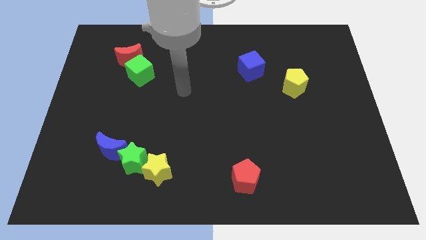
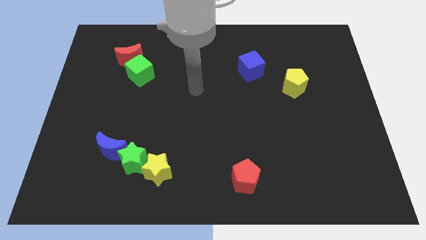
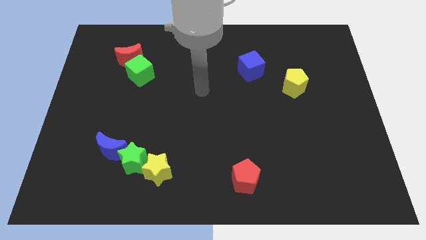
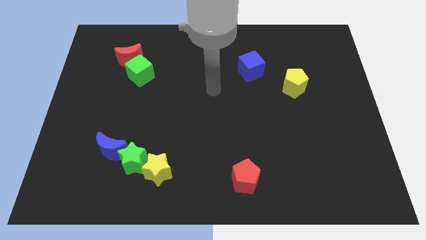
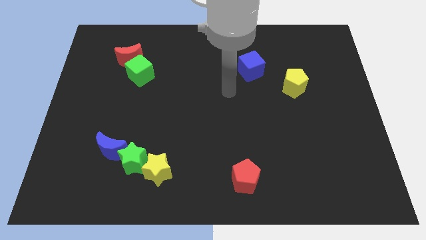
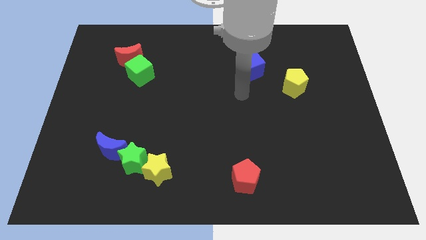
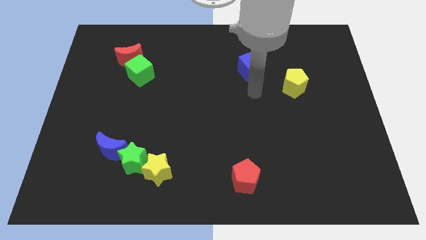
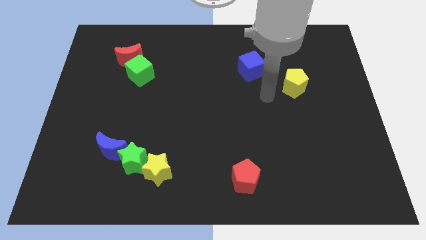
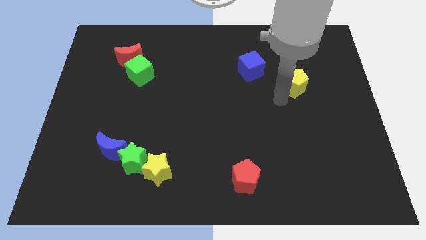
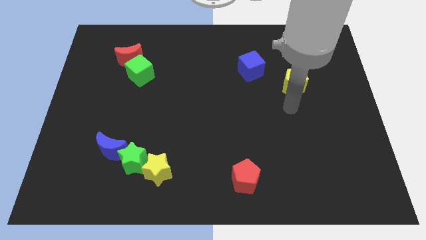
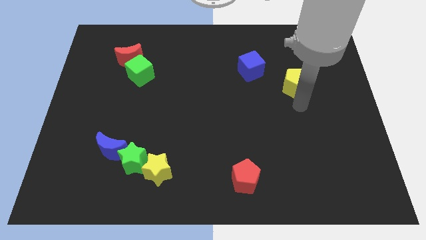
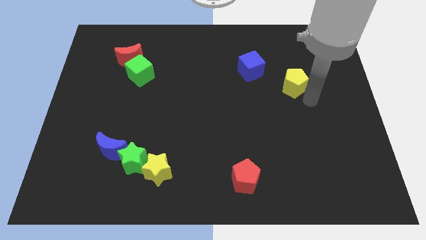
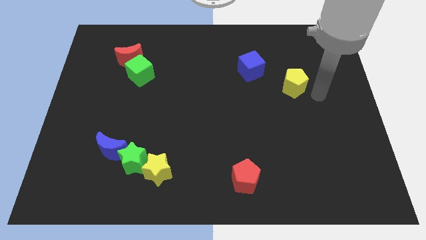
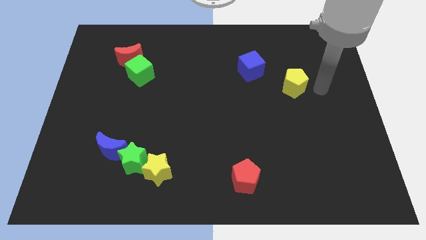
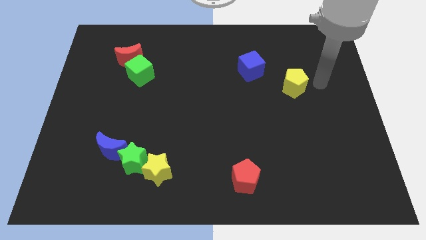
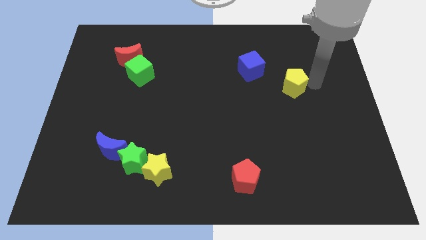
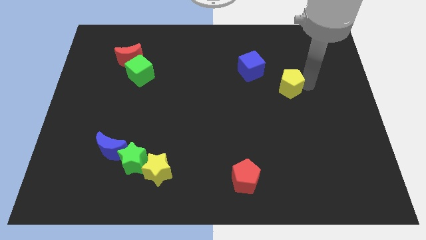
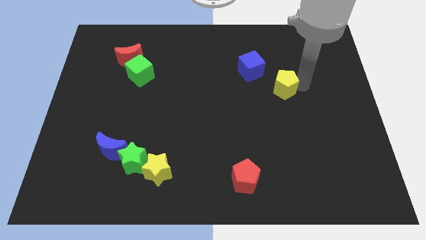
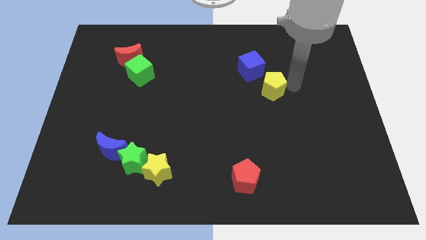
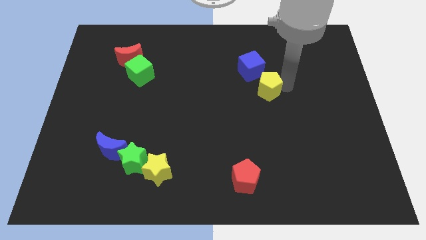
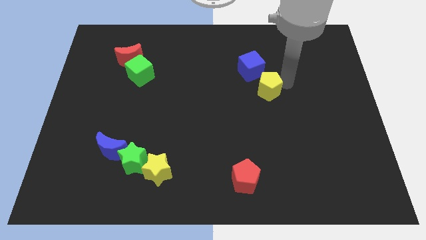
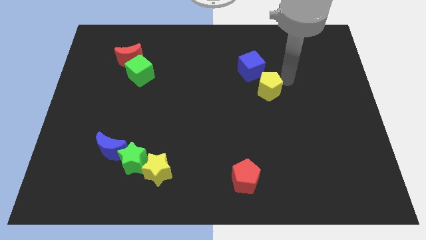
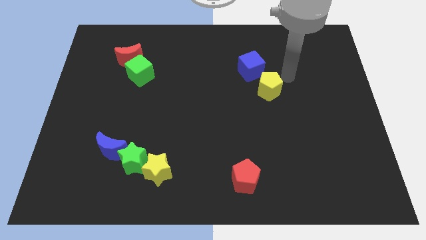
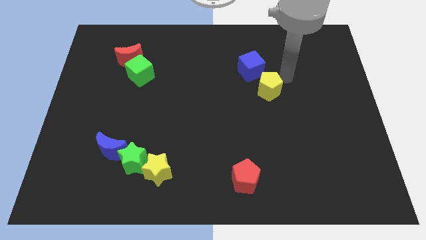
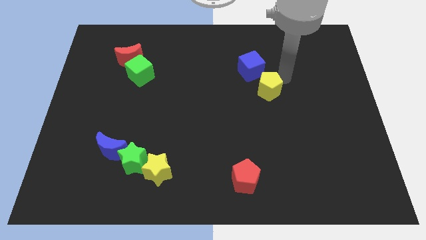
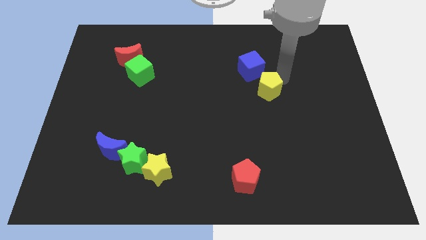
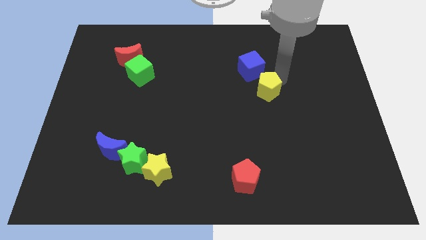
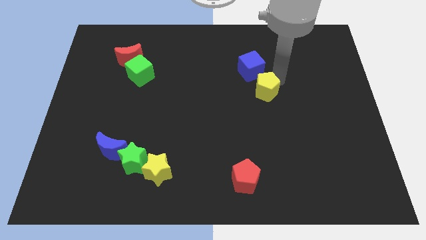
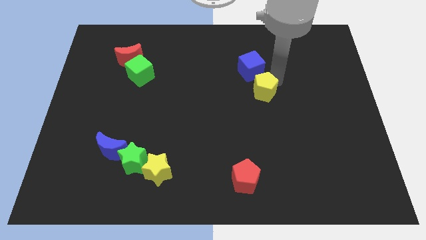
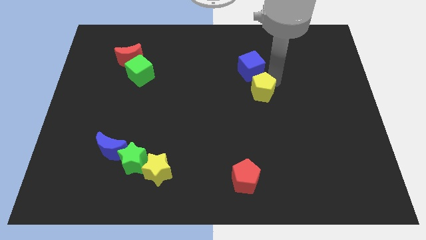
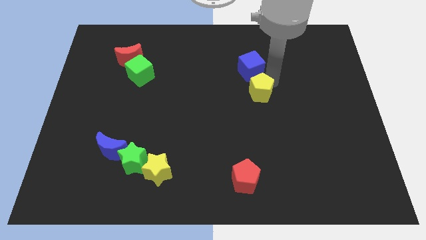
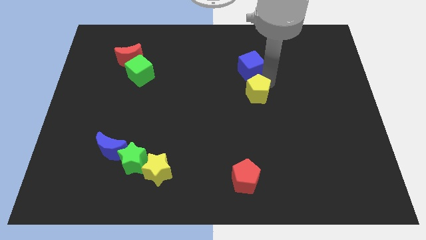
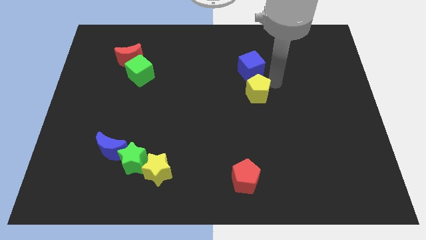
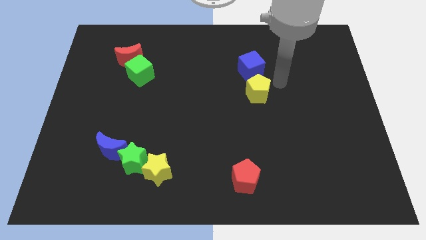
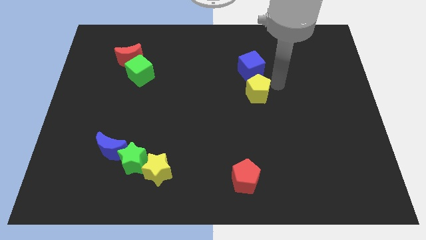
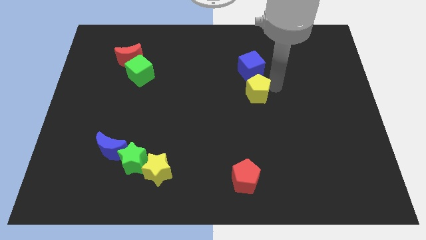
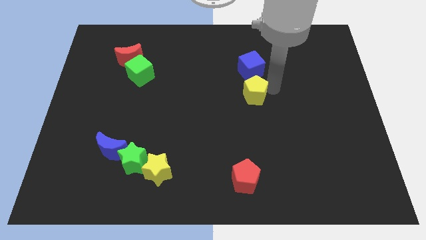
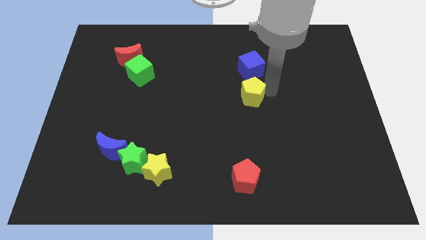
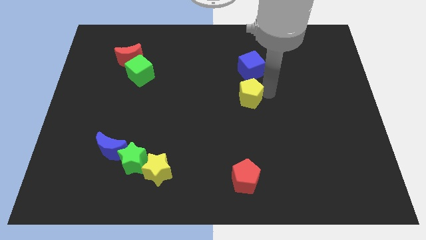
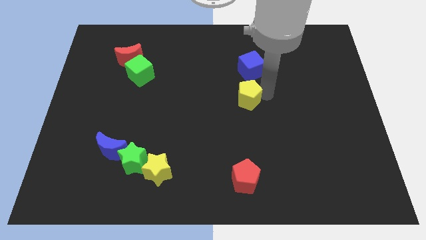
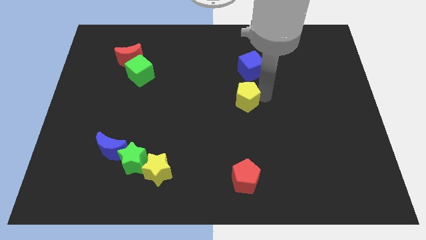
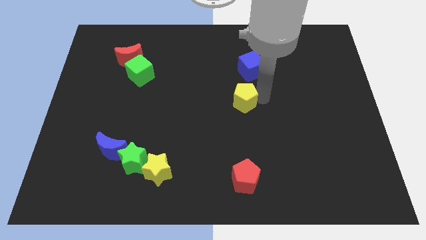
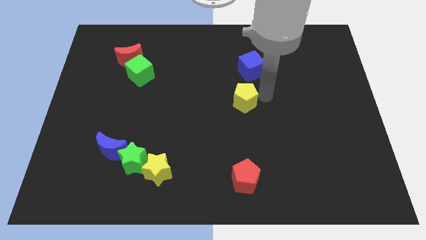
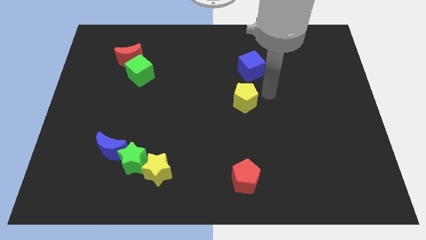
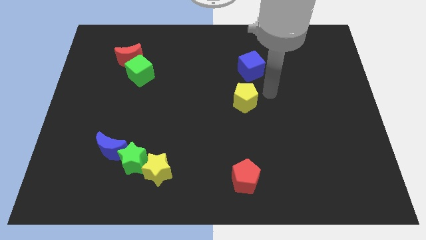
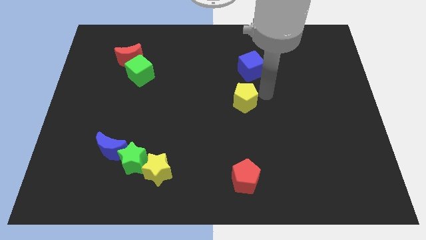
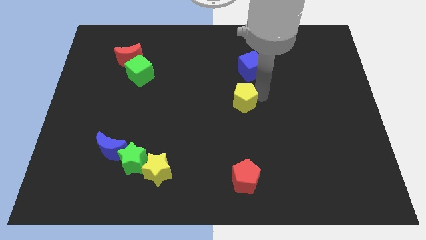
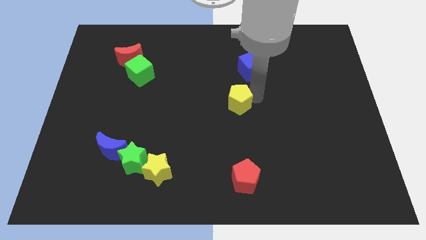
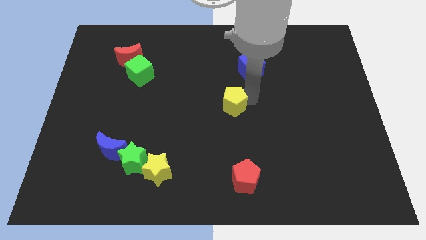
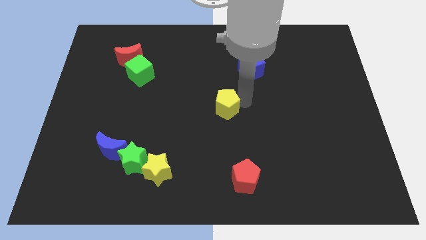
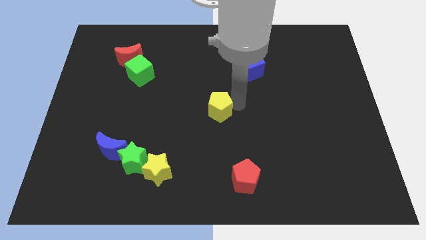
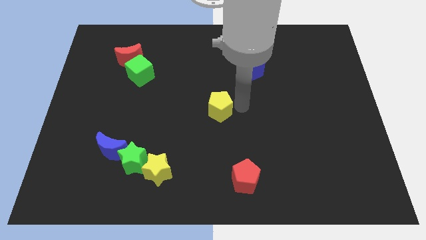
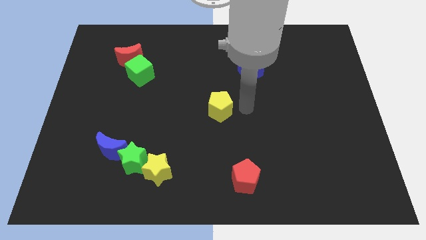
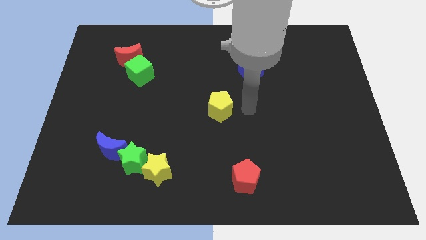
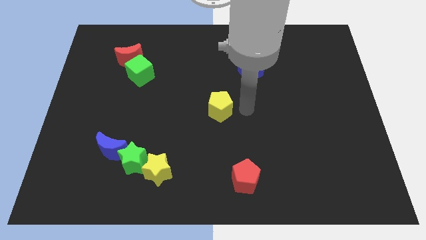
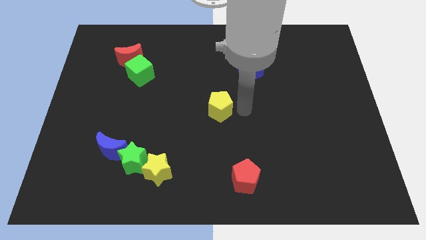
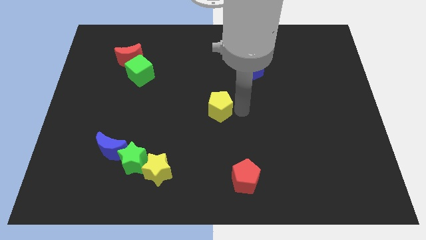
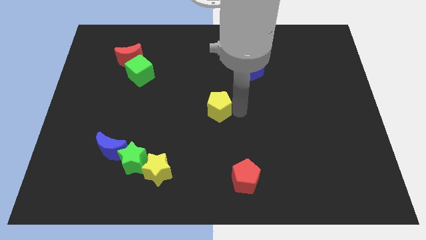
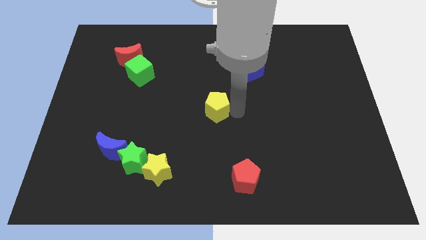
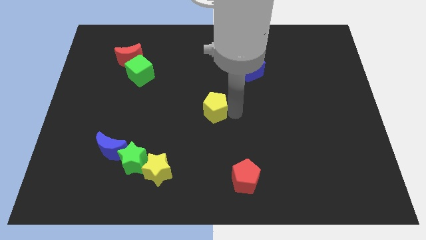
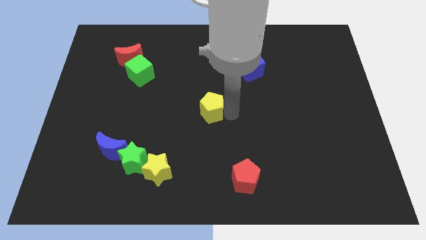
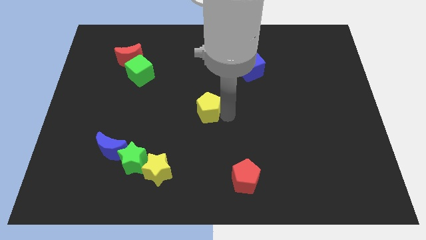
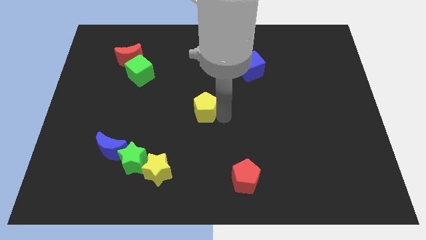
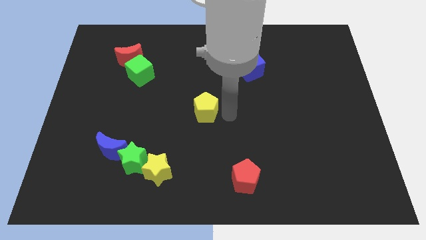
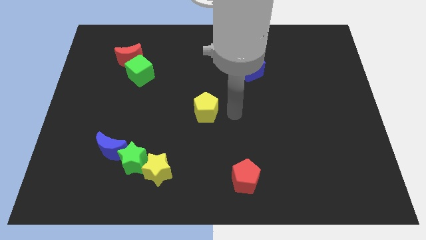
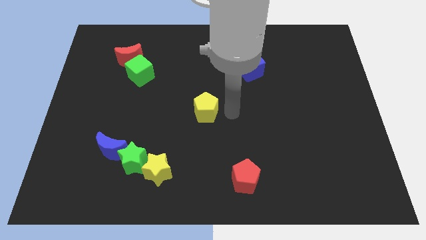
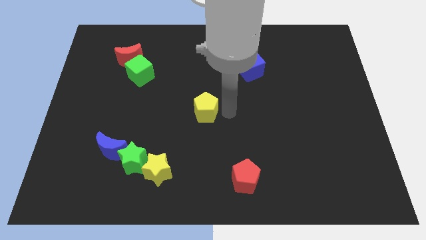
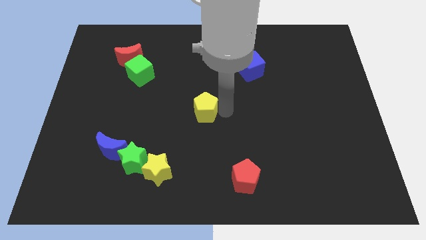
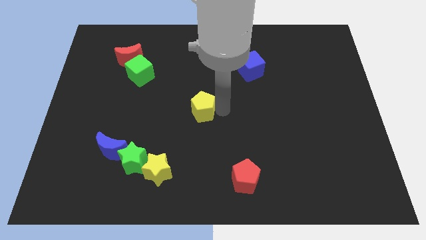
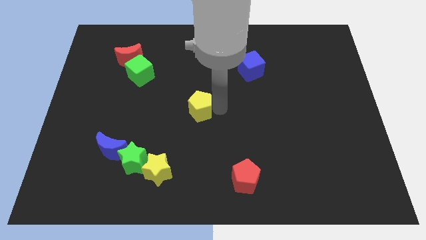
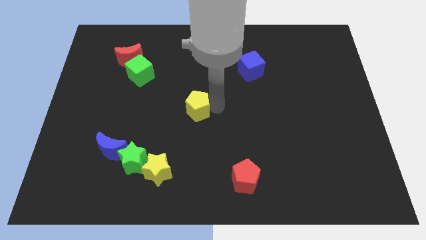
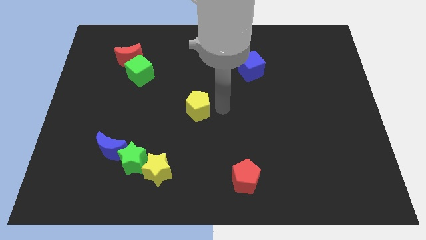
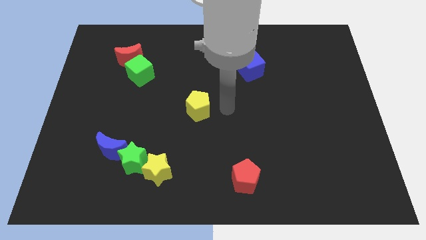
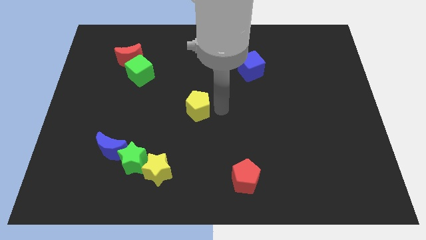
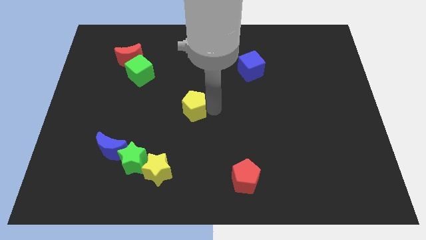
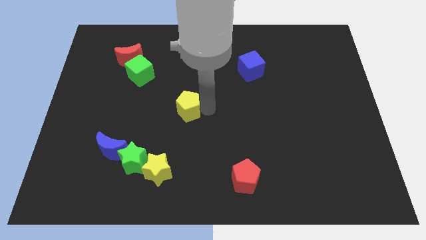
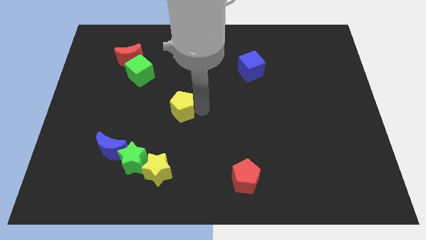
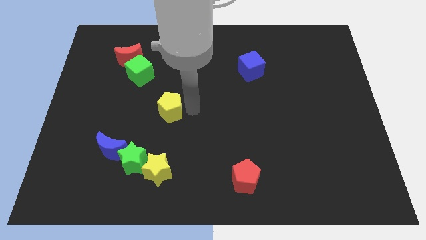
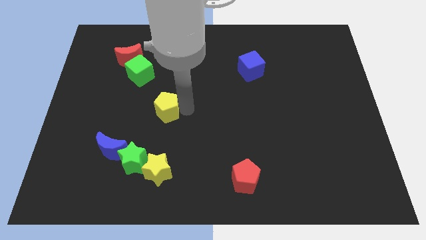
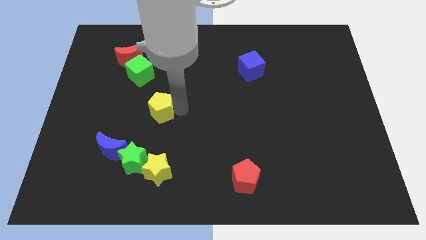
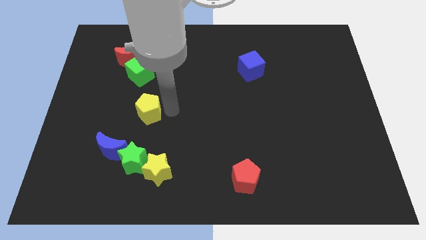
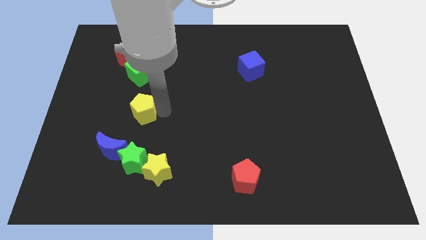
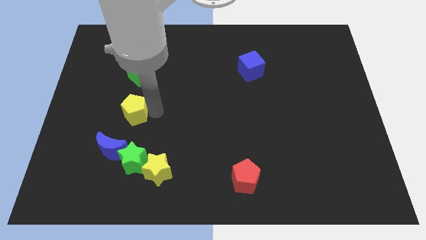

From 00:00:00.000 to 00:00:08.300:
slide the yellow pentagon to the top side of the blue moon
